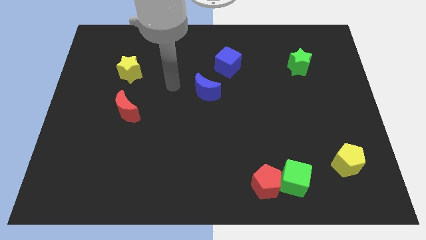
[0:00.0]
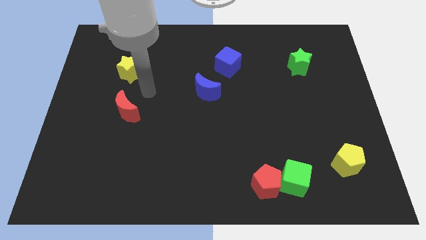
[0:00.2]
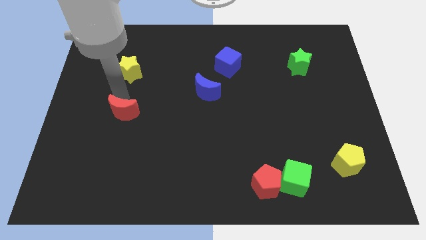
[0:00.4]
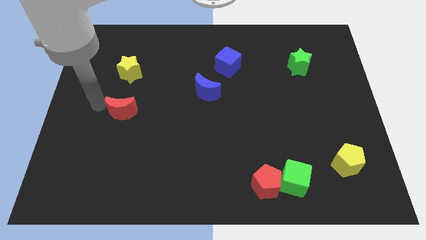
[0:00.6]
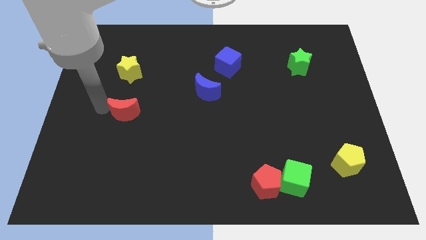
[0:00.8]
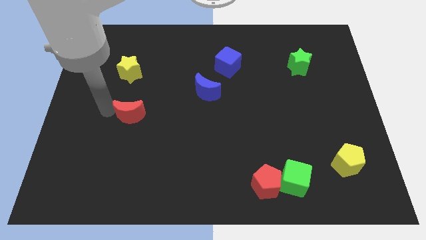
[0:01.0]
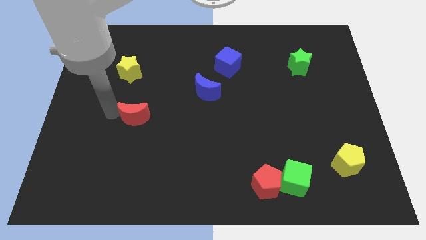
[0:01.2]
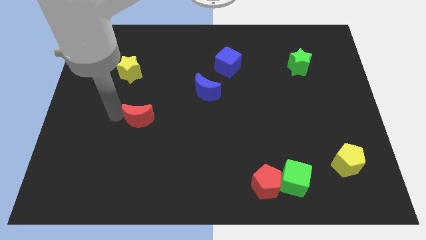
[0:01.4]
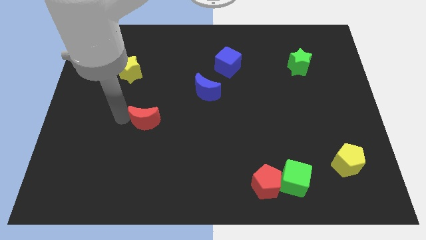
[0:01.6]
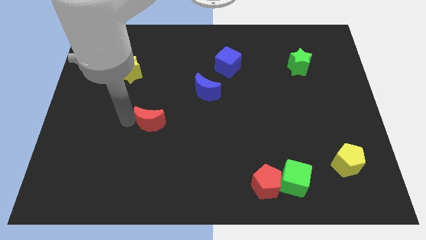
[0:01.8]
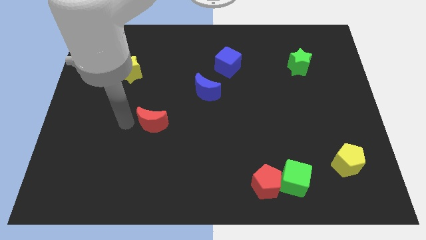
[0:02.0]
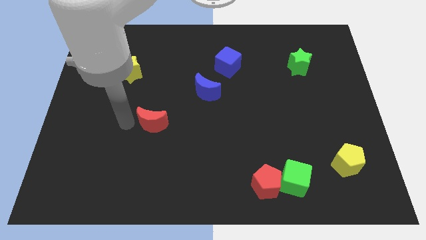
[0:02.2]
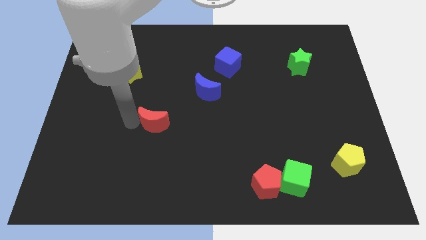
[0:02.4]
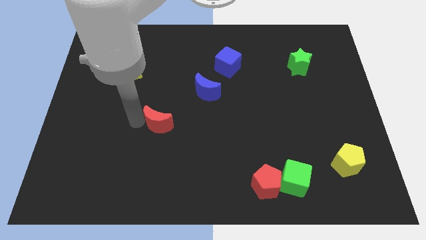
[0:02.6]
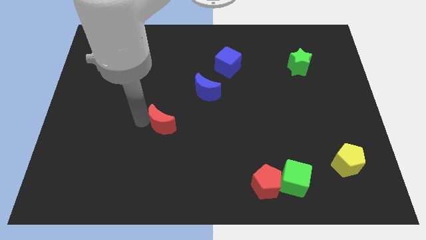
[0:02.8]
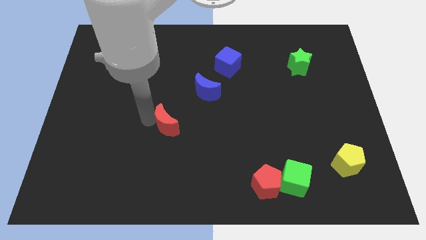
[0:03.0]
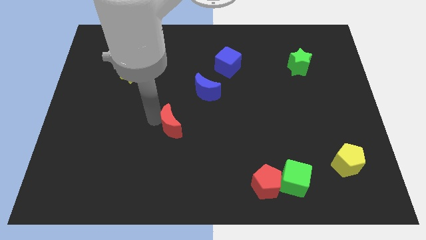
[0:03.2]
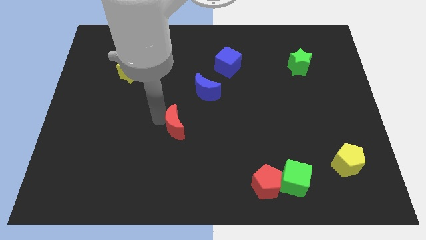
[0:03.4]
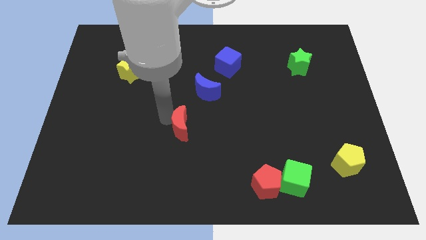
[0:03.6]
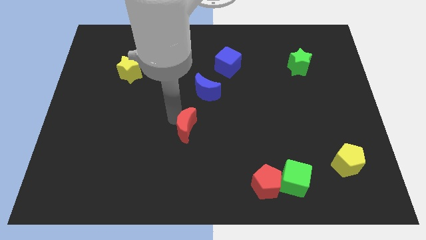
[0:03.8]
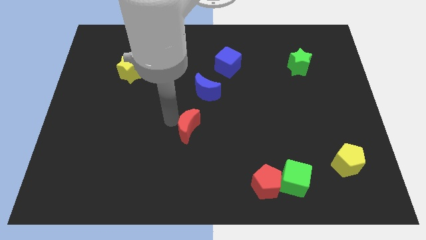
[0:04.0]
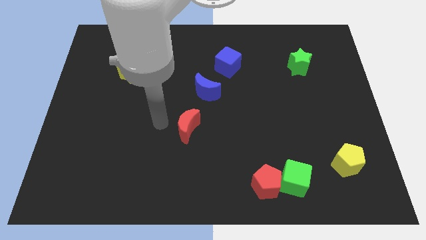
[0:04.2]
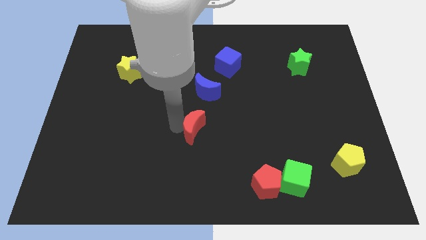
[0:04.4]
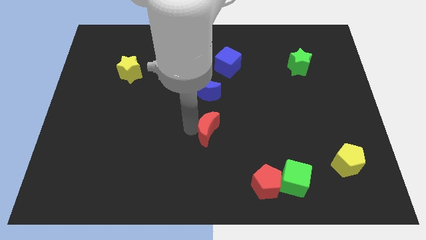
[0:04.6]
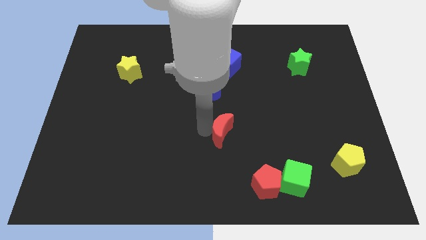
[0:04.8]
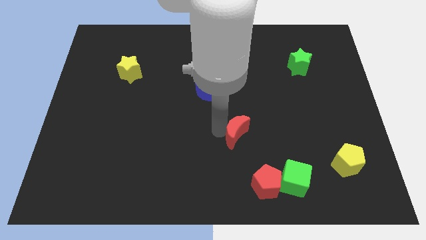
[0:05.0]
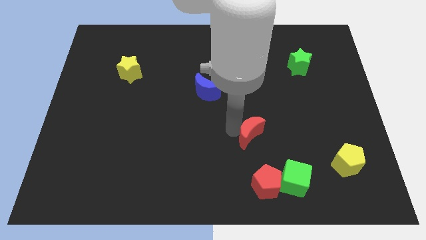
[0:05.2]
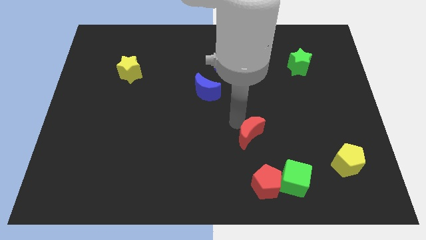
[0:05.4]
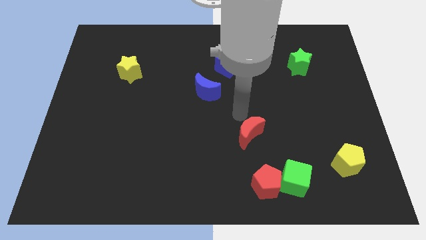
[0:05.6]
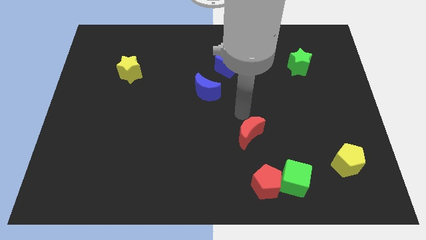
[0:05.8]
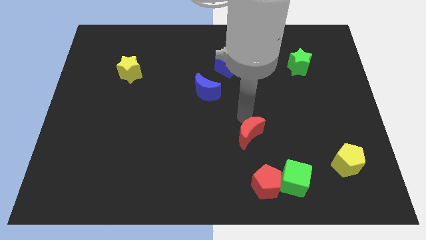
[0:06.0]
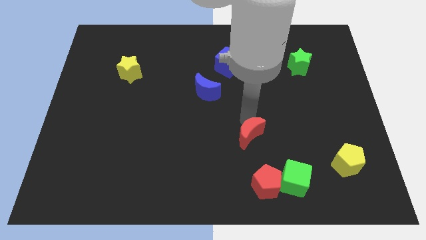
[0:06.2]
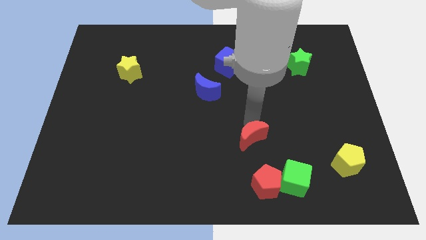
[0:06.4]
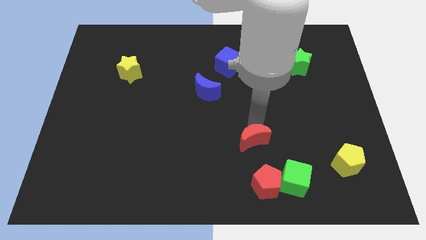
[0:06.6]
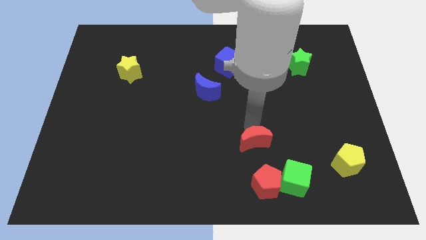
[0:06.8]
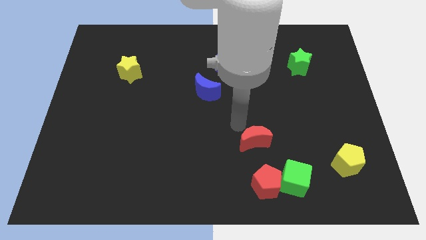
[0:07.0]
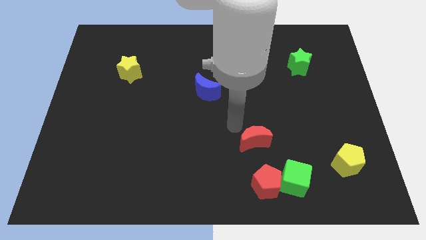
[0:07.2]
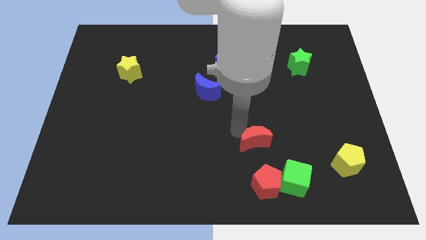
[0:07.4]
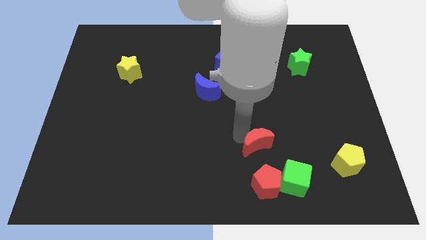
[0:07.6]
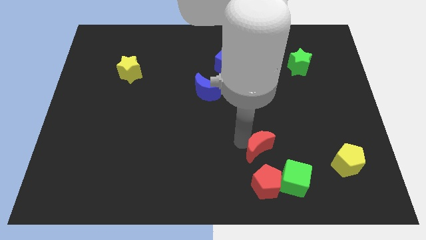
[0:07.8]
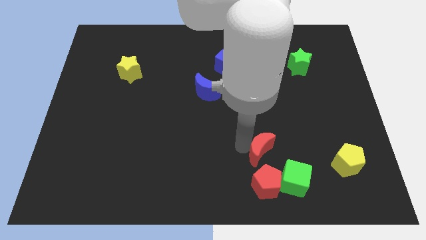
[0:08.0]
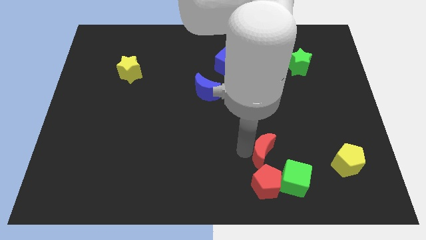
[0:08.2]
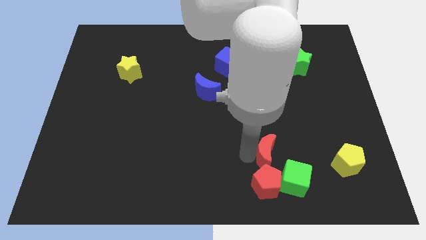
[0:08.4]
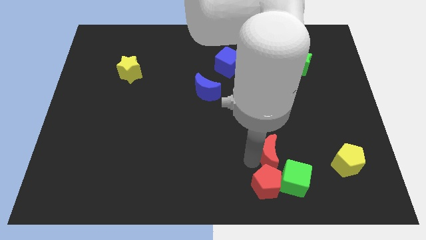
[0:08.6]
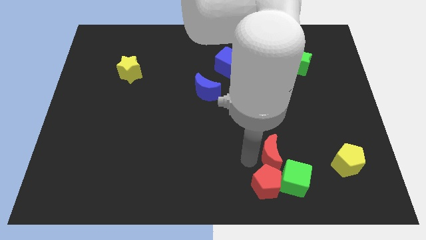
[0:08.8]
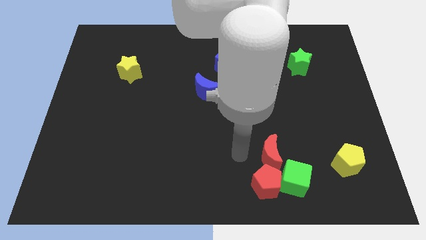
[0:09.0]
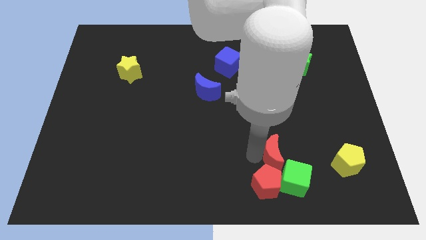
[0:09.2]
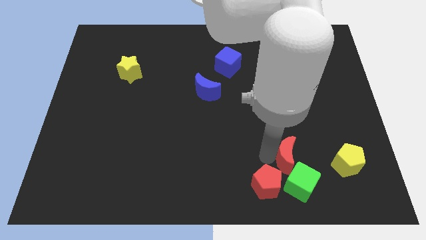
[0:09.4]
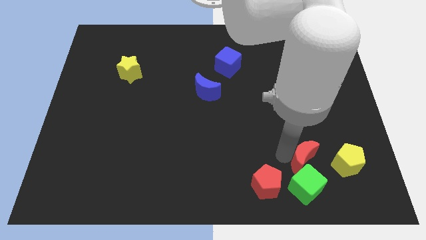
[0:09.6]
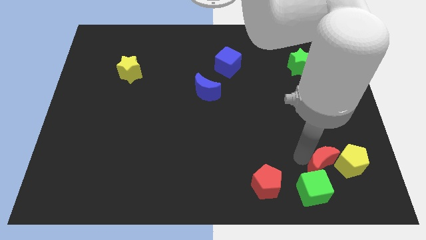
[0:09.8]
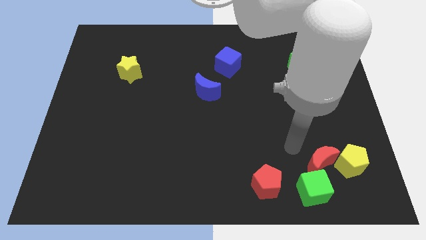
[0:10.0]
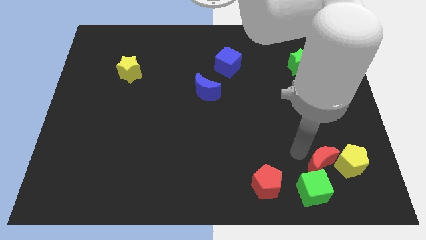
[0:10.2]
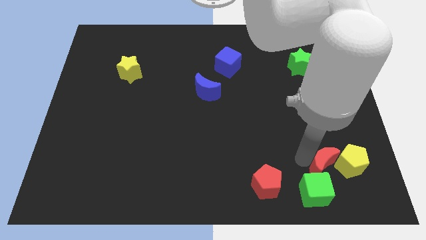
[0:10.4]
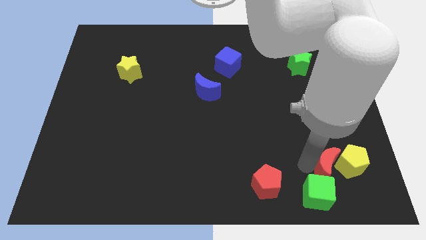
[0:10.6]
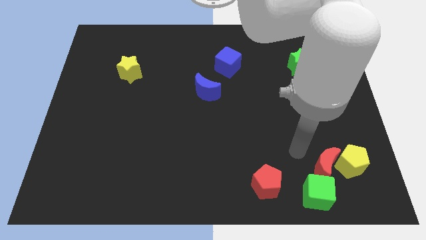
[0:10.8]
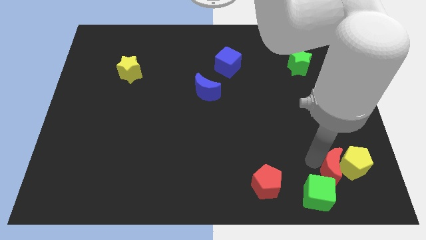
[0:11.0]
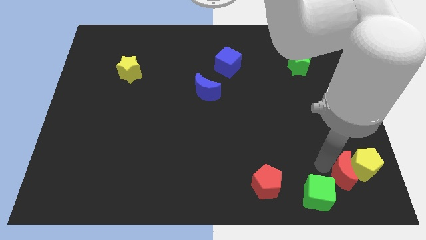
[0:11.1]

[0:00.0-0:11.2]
push the red moon right of the green cube
